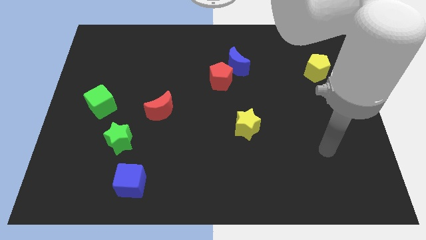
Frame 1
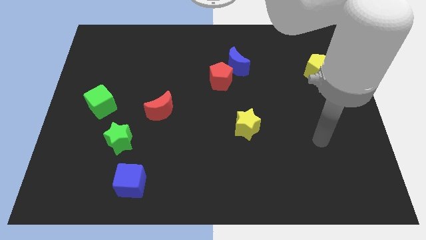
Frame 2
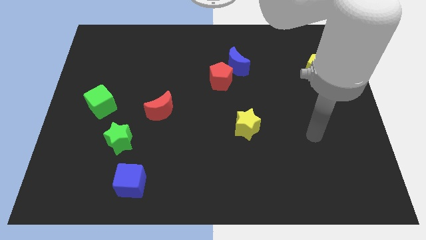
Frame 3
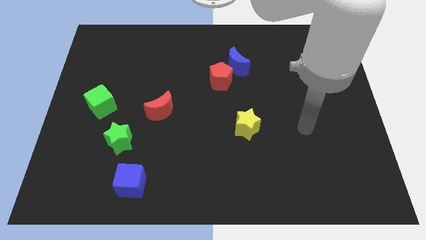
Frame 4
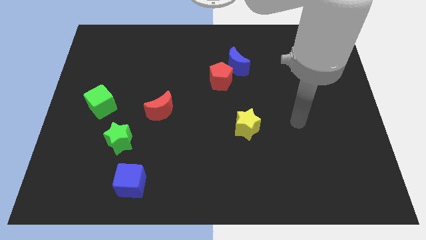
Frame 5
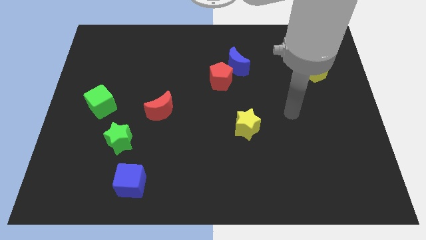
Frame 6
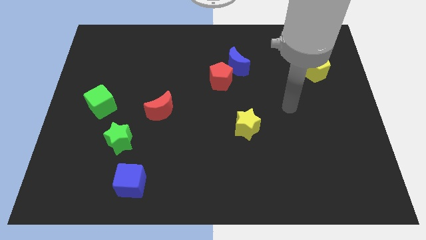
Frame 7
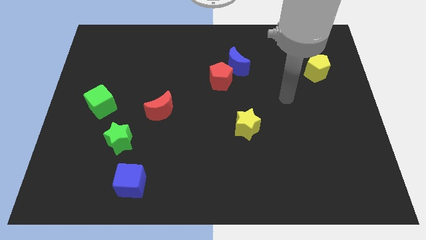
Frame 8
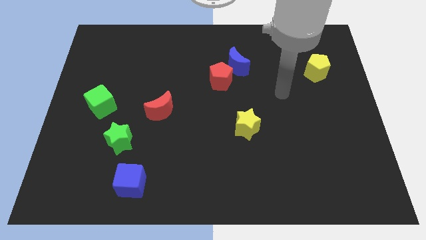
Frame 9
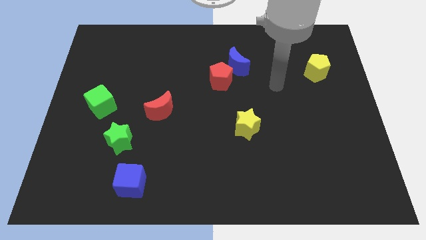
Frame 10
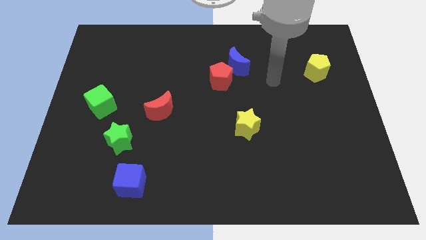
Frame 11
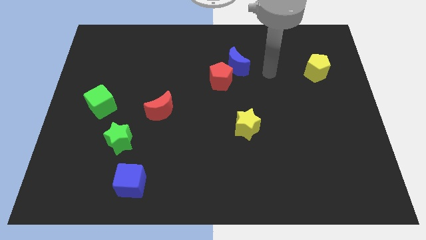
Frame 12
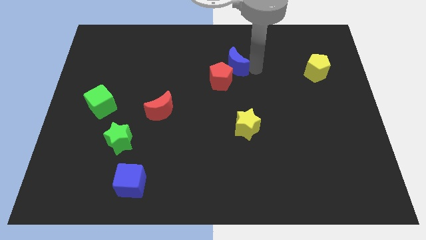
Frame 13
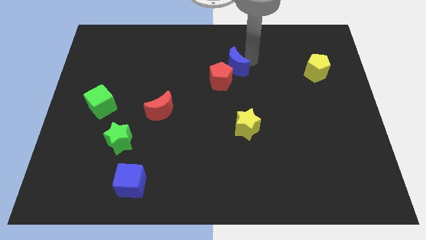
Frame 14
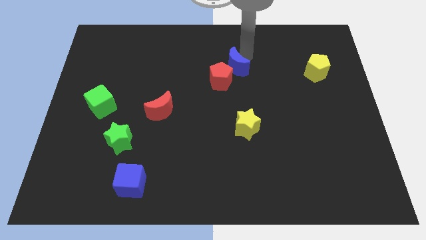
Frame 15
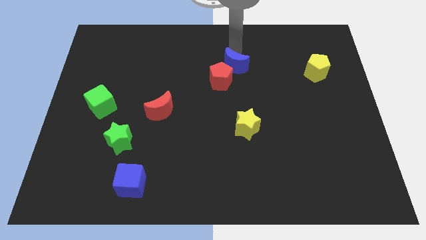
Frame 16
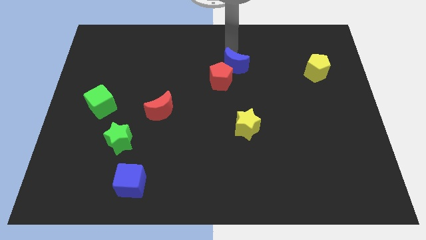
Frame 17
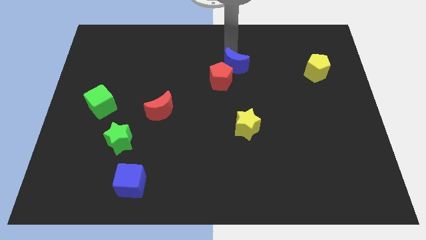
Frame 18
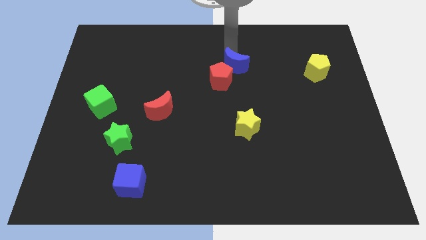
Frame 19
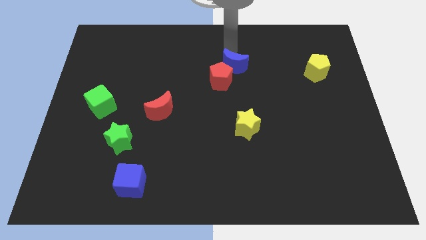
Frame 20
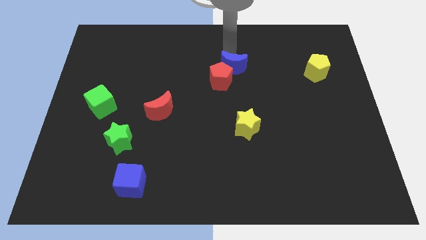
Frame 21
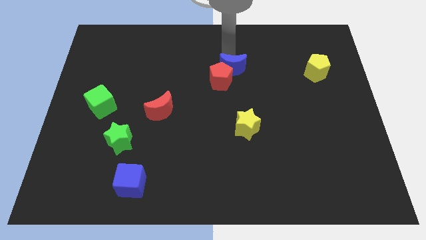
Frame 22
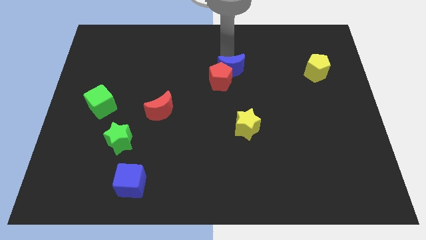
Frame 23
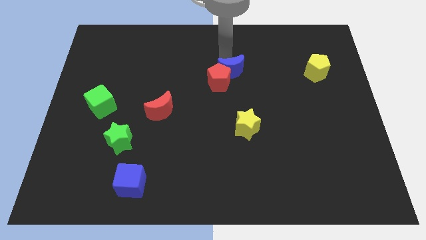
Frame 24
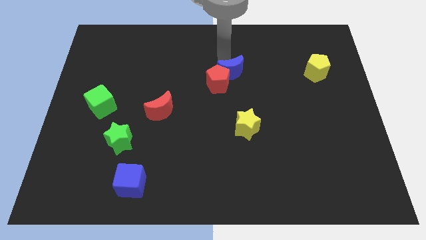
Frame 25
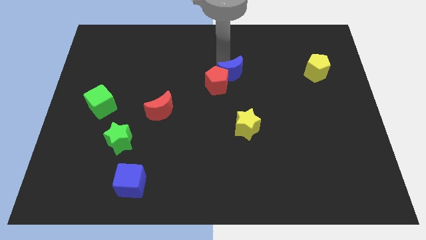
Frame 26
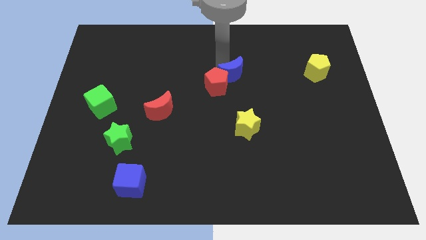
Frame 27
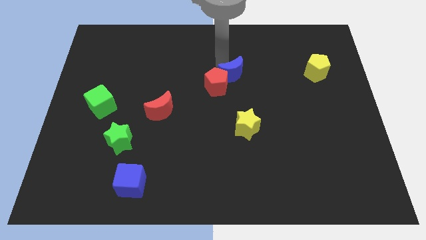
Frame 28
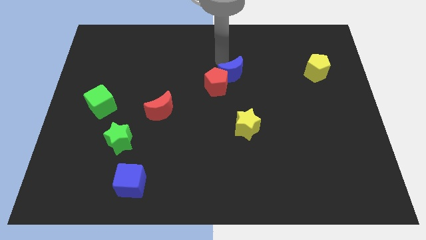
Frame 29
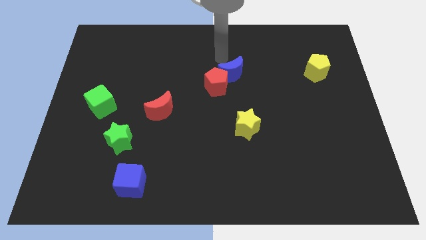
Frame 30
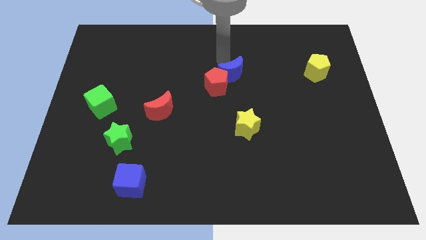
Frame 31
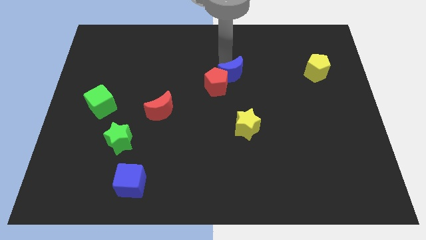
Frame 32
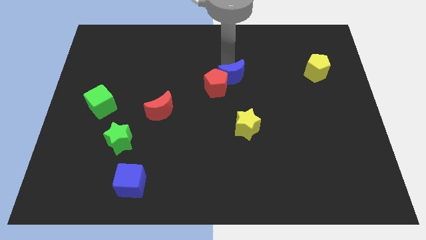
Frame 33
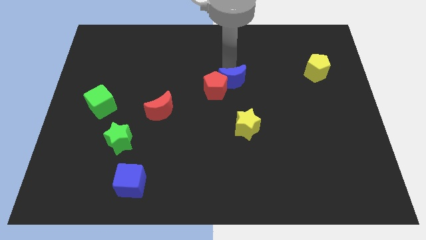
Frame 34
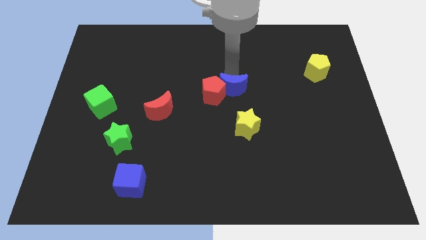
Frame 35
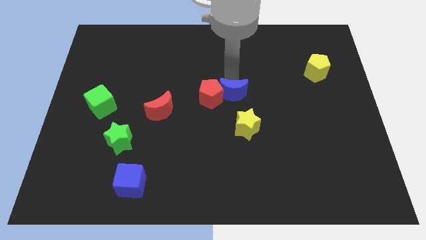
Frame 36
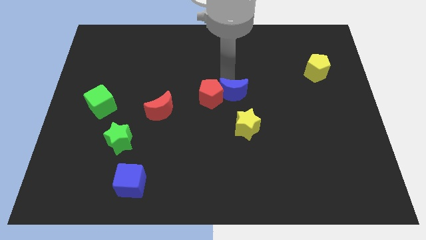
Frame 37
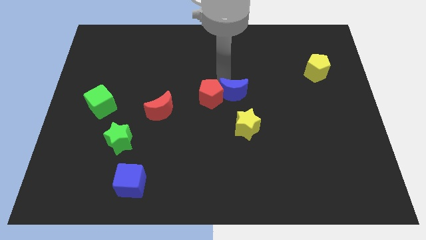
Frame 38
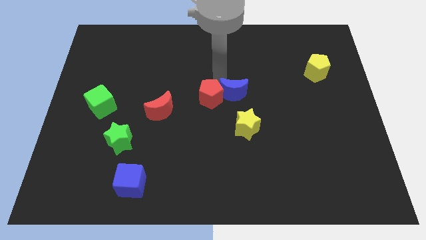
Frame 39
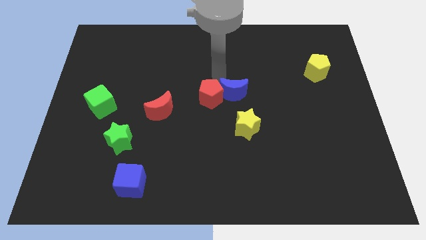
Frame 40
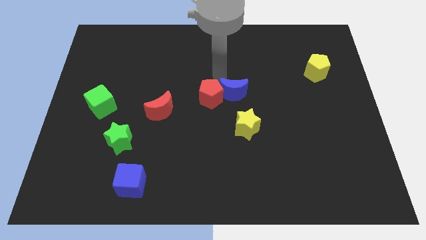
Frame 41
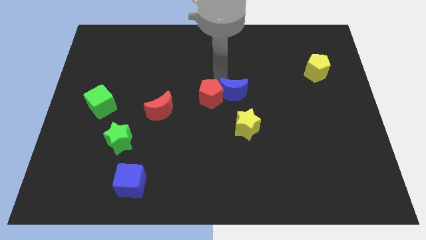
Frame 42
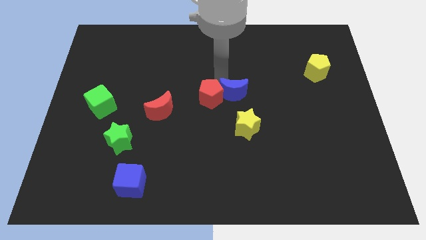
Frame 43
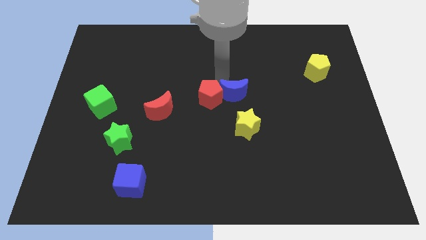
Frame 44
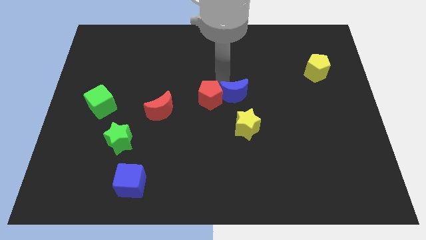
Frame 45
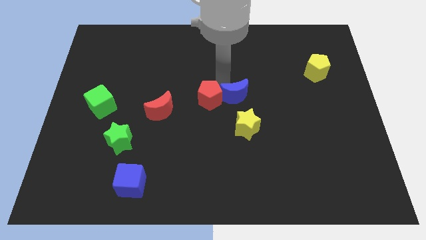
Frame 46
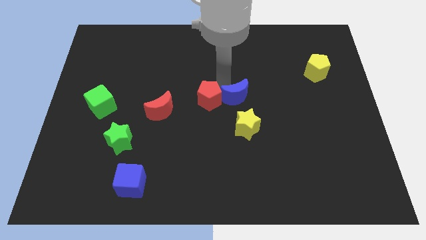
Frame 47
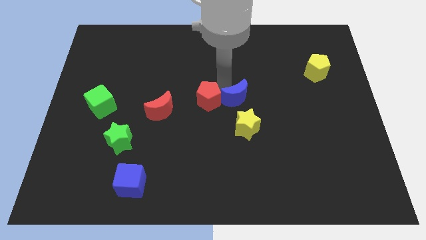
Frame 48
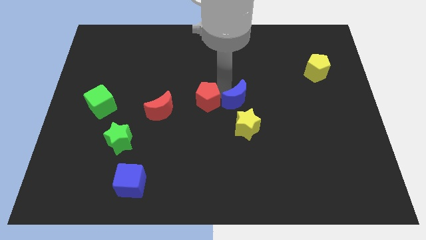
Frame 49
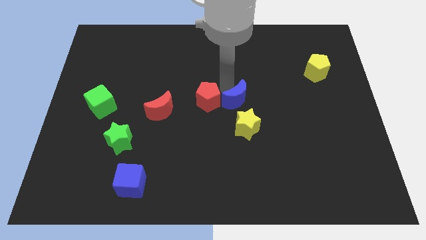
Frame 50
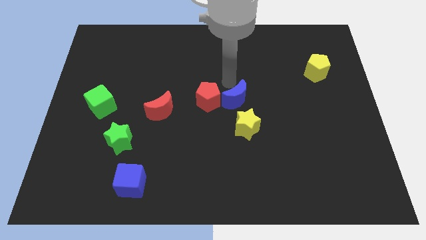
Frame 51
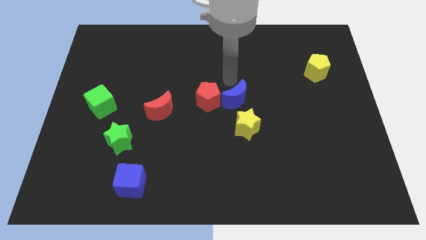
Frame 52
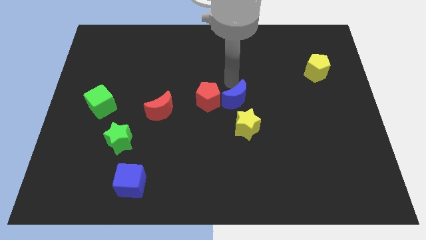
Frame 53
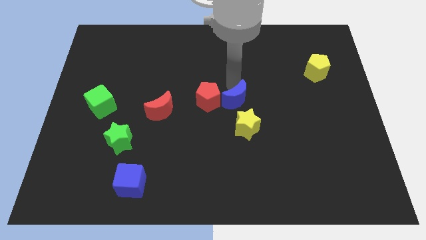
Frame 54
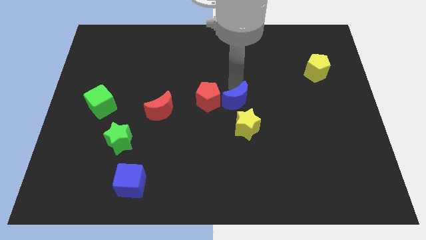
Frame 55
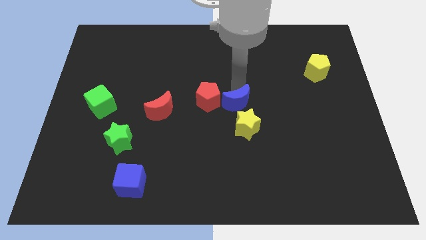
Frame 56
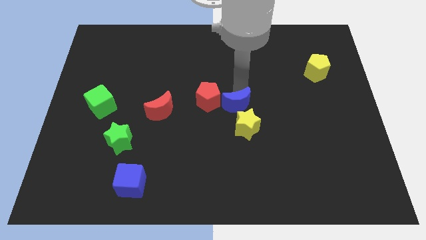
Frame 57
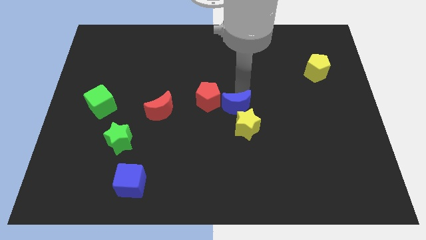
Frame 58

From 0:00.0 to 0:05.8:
put the blue moon close to the yellow star

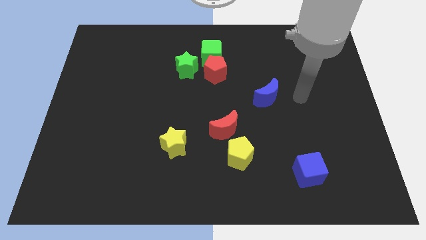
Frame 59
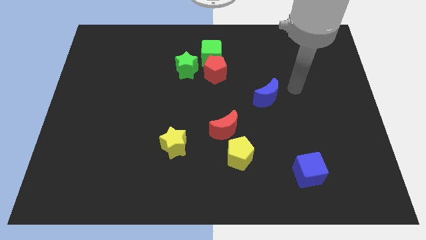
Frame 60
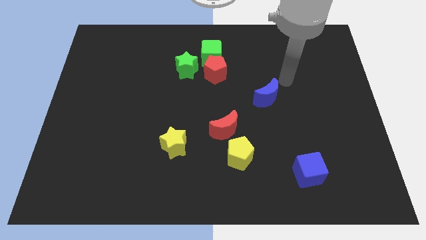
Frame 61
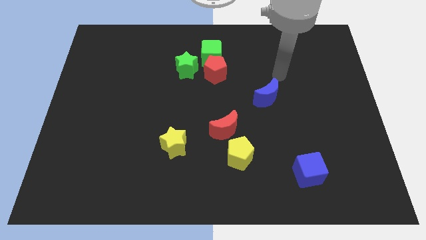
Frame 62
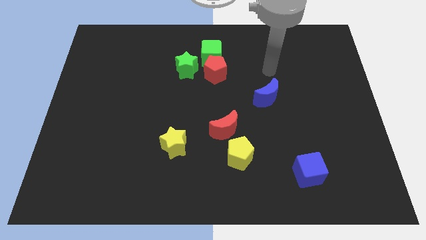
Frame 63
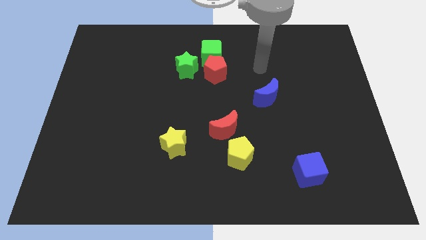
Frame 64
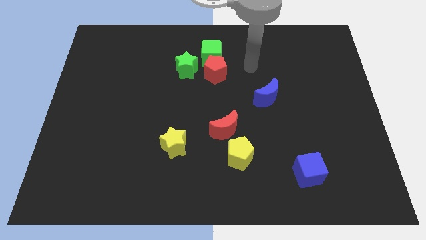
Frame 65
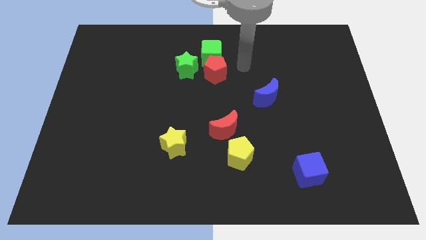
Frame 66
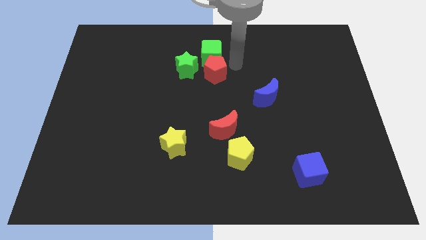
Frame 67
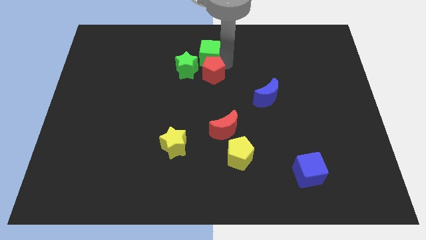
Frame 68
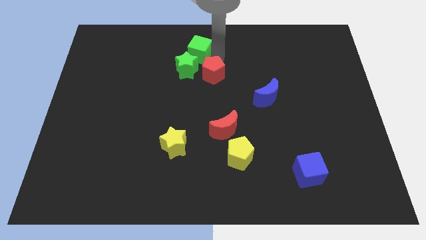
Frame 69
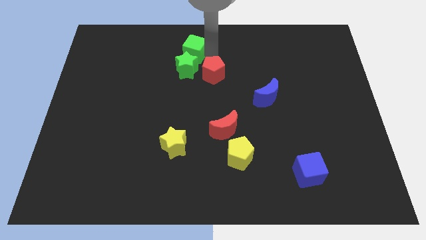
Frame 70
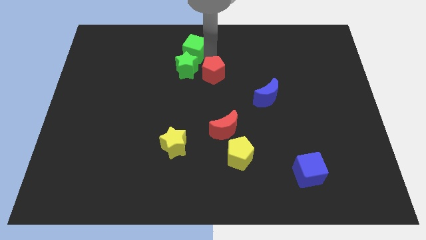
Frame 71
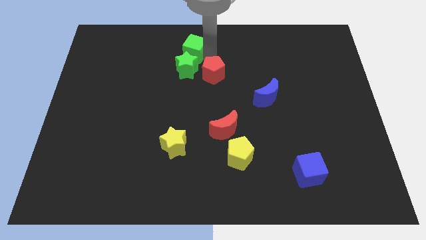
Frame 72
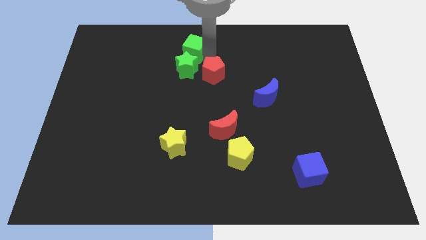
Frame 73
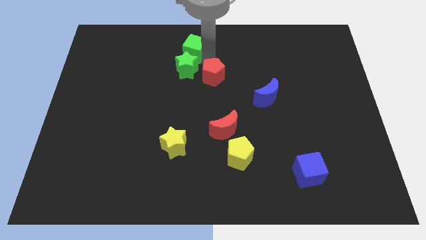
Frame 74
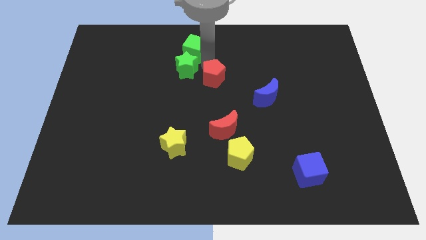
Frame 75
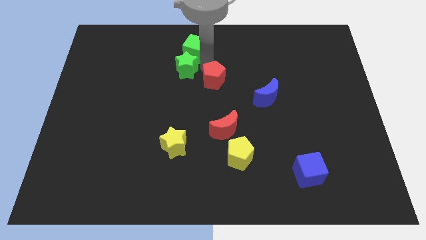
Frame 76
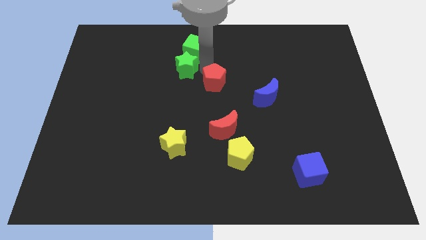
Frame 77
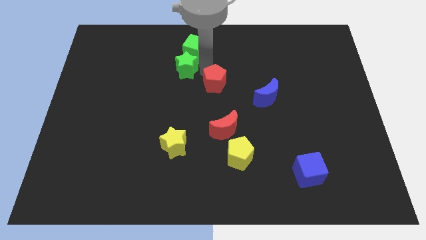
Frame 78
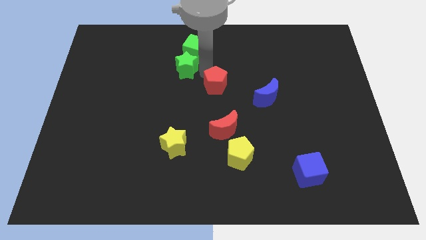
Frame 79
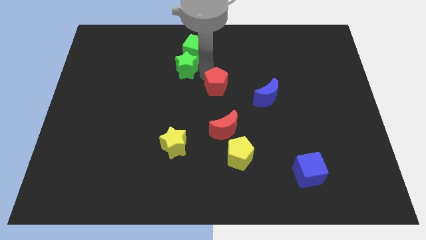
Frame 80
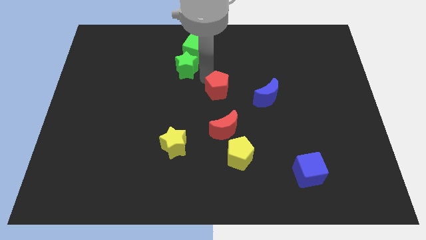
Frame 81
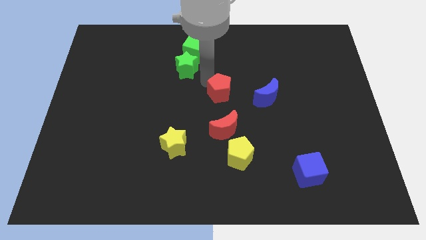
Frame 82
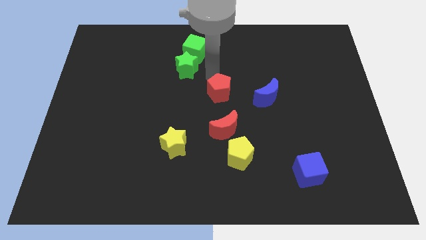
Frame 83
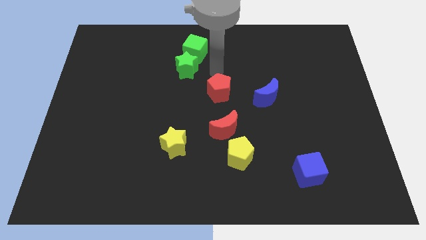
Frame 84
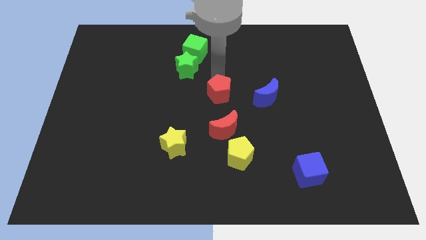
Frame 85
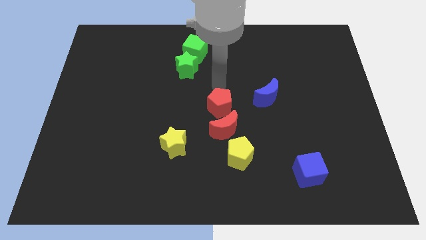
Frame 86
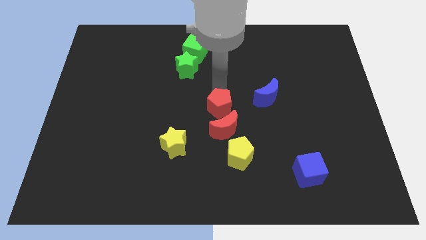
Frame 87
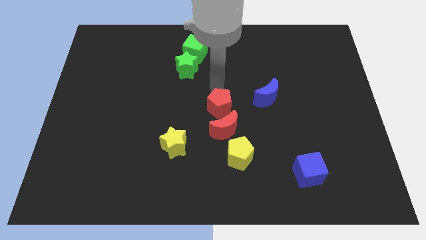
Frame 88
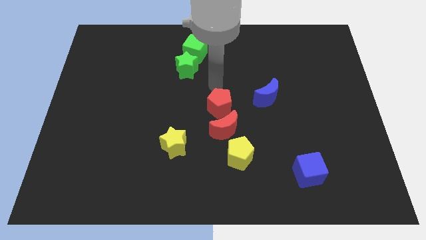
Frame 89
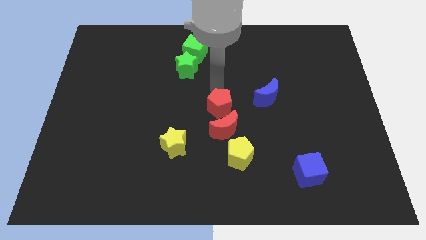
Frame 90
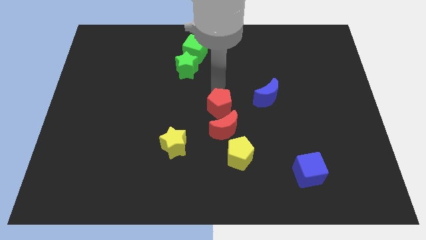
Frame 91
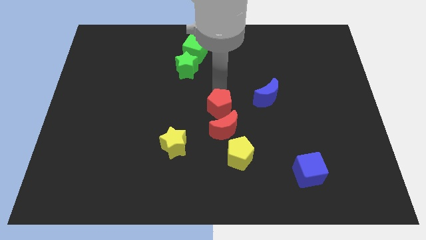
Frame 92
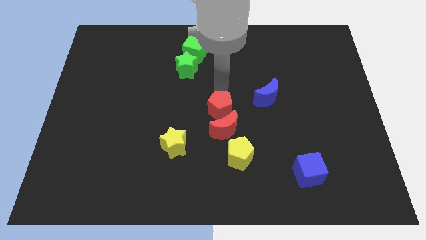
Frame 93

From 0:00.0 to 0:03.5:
push the red pentagon close to the red moon
